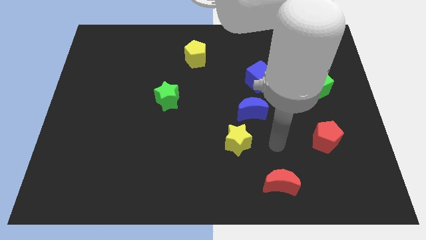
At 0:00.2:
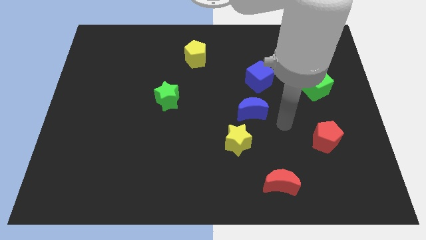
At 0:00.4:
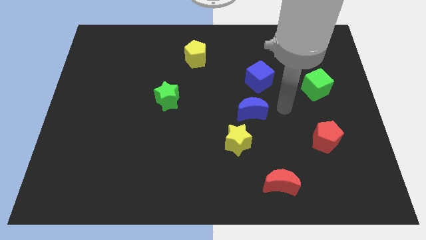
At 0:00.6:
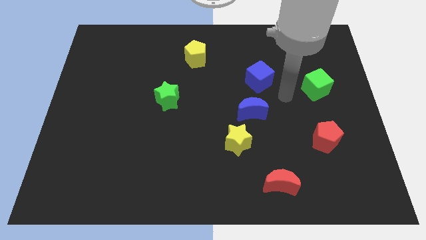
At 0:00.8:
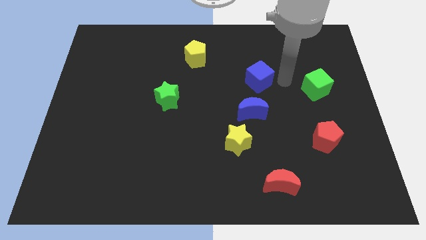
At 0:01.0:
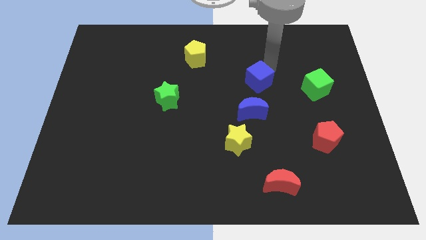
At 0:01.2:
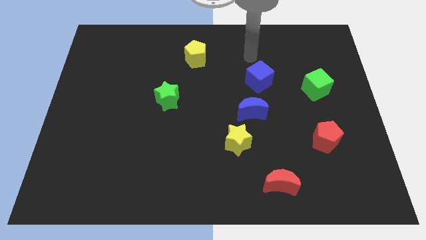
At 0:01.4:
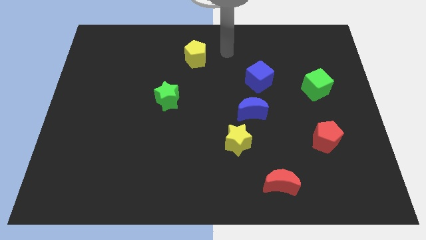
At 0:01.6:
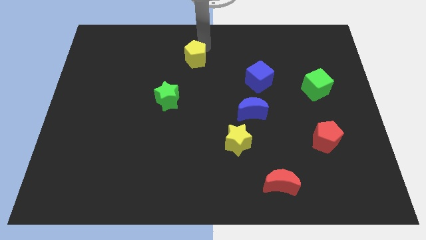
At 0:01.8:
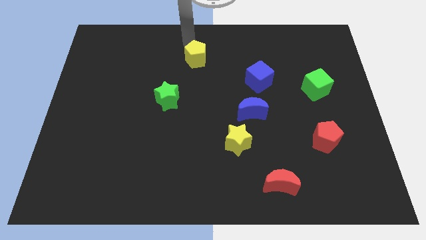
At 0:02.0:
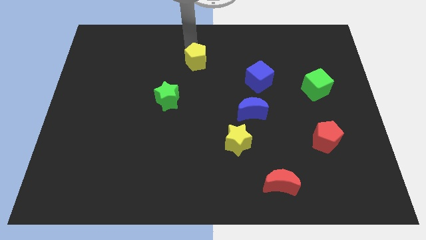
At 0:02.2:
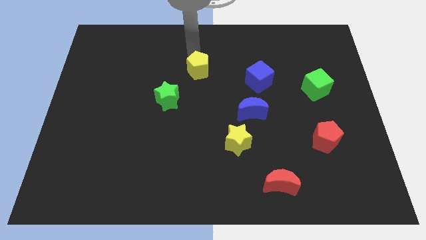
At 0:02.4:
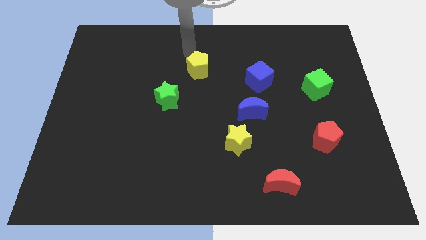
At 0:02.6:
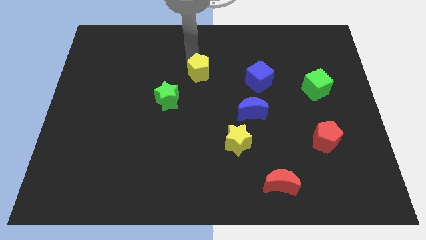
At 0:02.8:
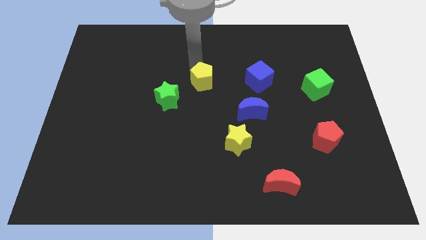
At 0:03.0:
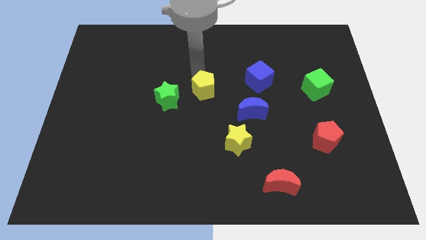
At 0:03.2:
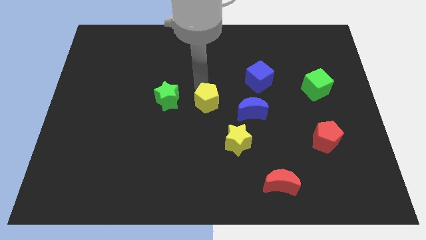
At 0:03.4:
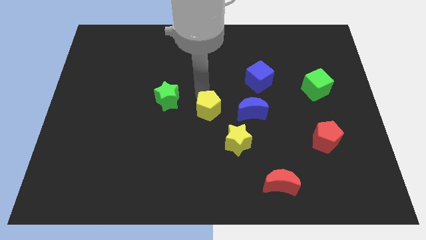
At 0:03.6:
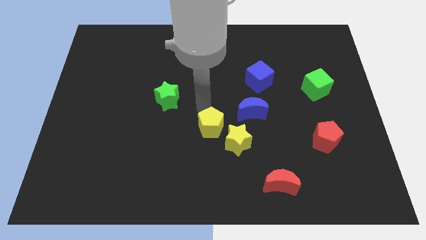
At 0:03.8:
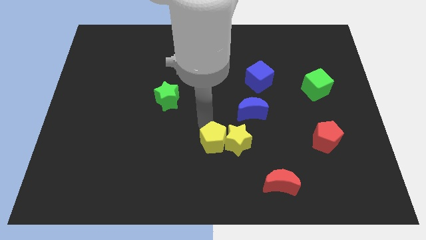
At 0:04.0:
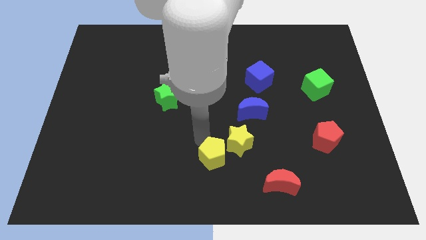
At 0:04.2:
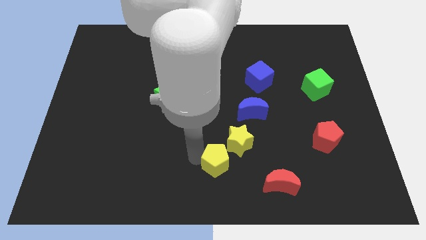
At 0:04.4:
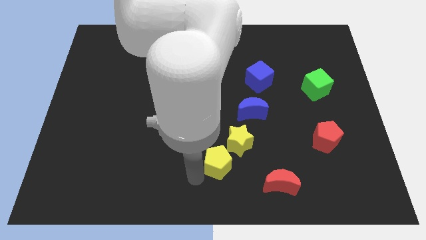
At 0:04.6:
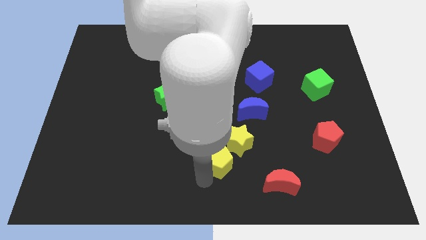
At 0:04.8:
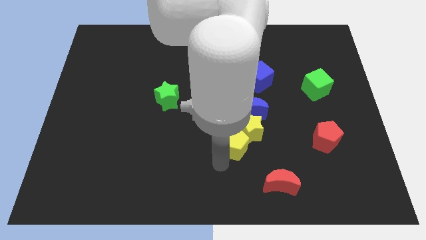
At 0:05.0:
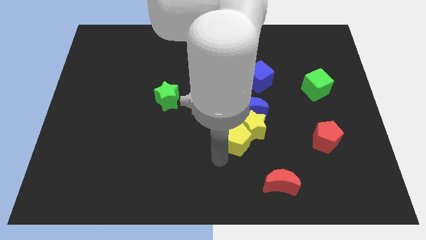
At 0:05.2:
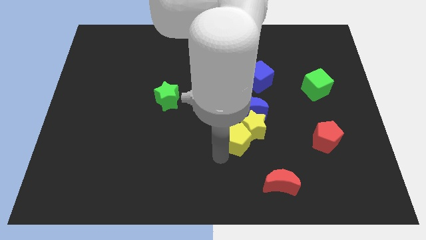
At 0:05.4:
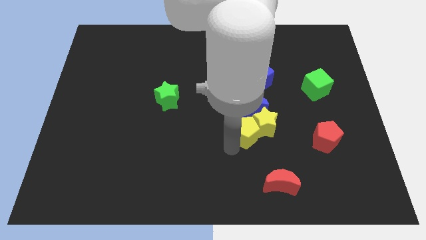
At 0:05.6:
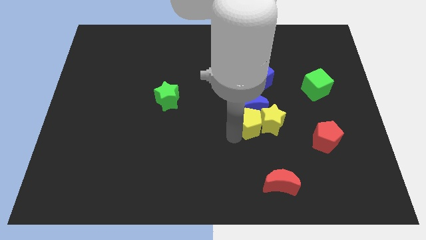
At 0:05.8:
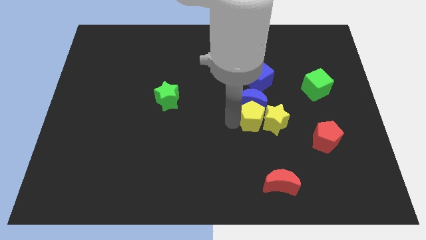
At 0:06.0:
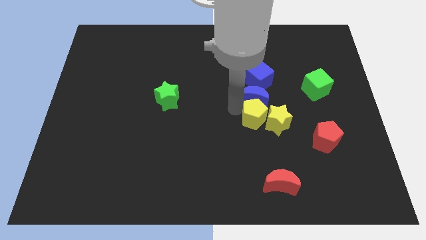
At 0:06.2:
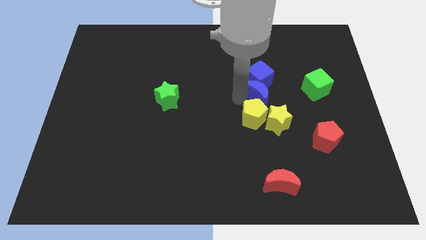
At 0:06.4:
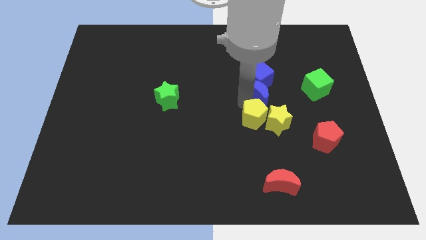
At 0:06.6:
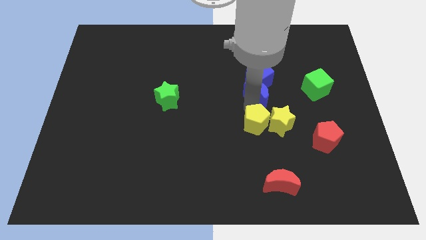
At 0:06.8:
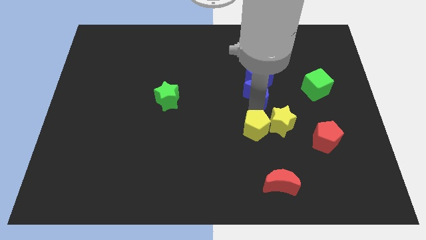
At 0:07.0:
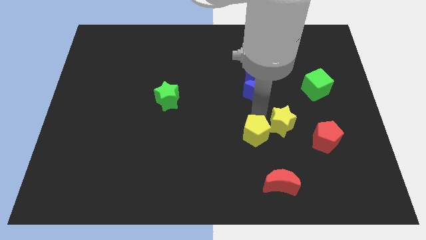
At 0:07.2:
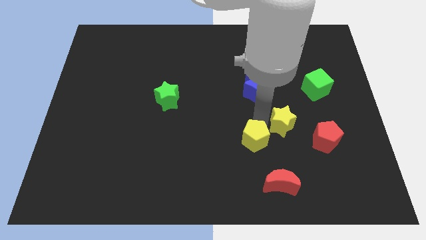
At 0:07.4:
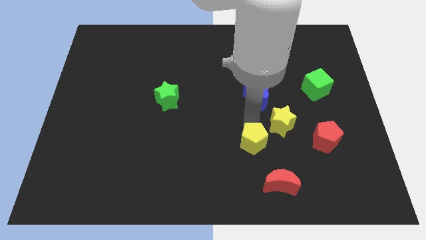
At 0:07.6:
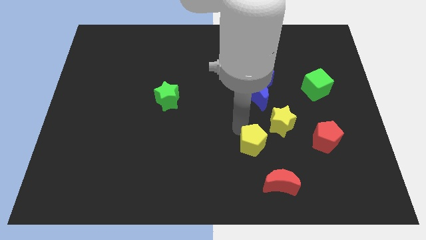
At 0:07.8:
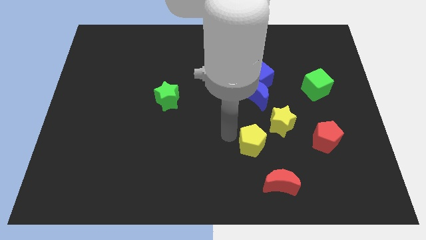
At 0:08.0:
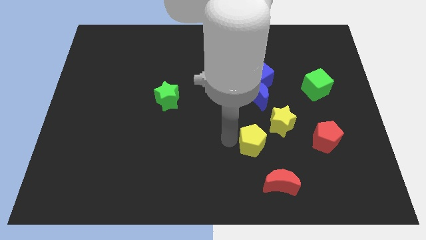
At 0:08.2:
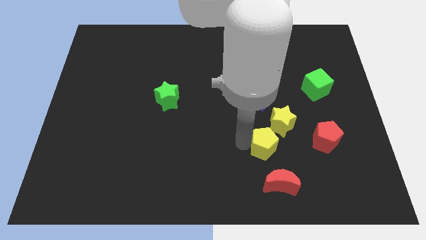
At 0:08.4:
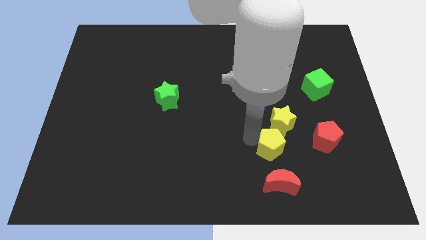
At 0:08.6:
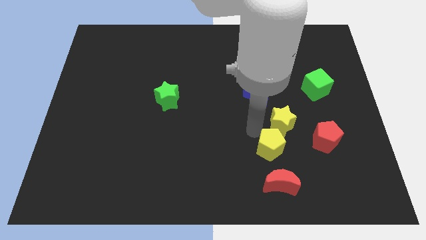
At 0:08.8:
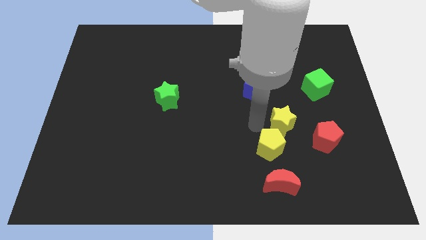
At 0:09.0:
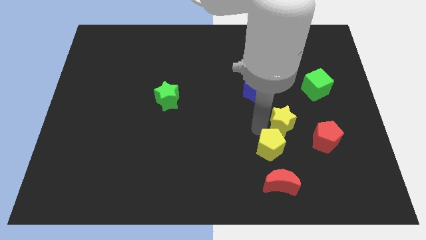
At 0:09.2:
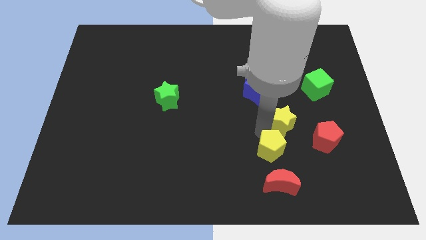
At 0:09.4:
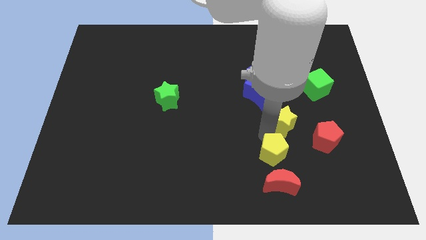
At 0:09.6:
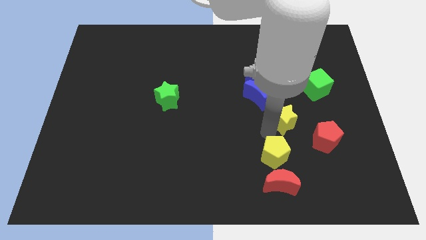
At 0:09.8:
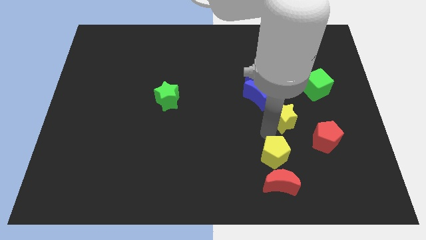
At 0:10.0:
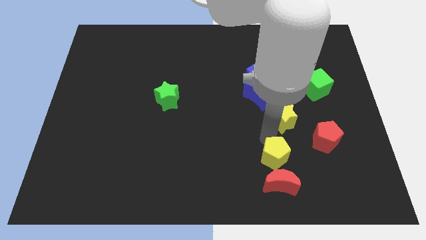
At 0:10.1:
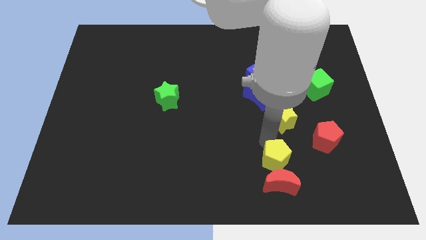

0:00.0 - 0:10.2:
put the yellow pentagon close to the red moon

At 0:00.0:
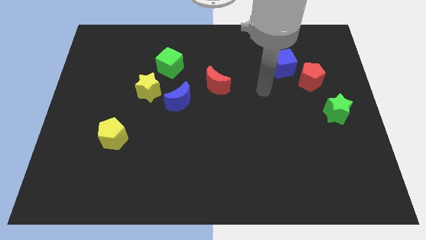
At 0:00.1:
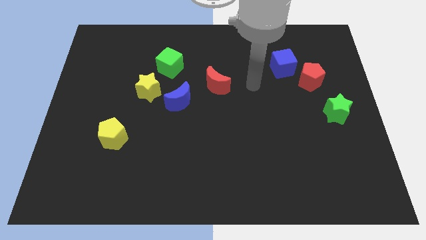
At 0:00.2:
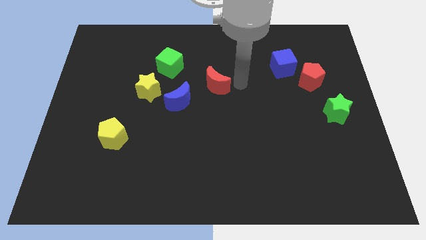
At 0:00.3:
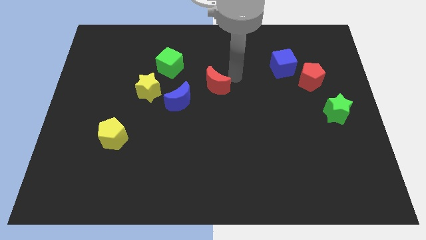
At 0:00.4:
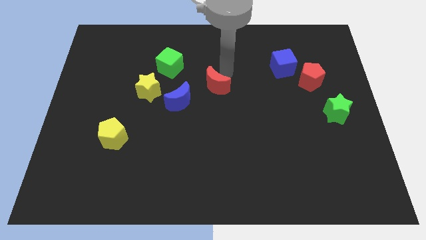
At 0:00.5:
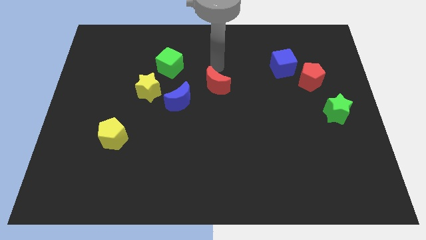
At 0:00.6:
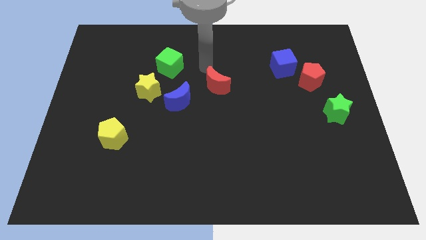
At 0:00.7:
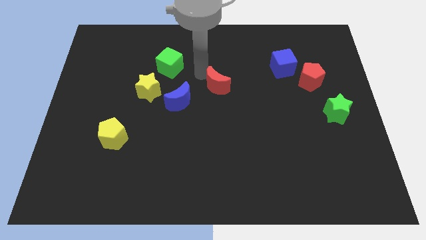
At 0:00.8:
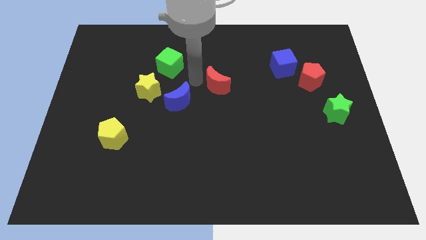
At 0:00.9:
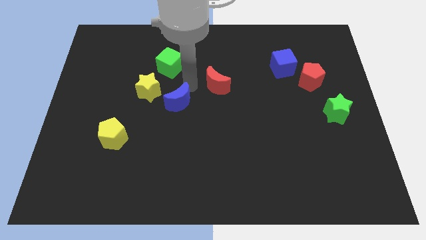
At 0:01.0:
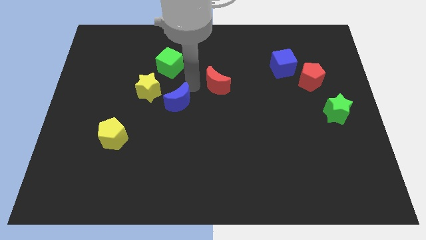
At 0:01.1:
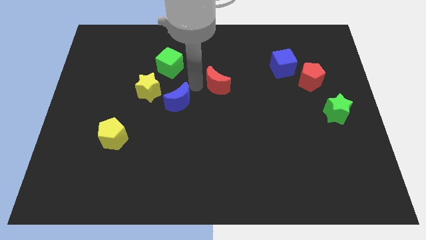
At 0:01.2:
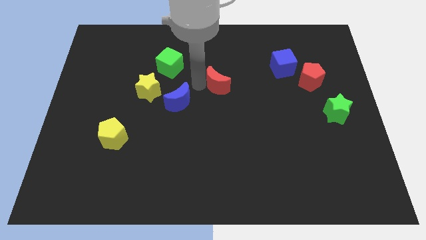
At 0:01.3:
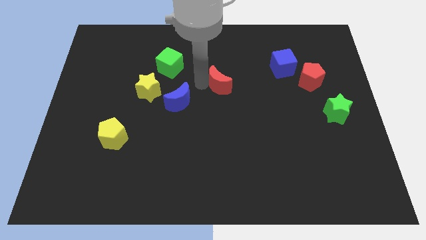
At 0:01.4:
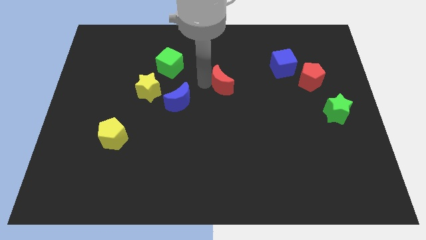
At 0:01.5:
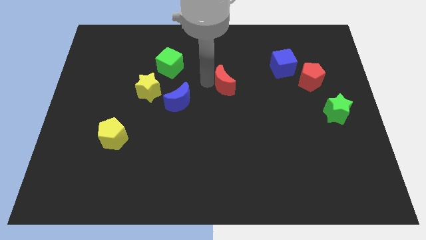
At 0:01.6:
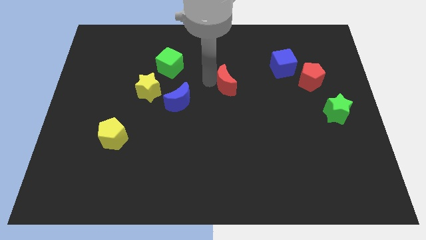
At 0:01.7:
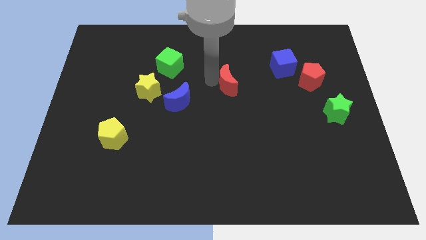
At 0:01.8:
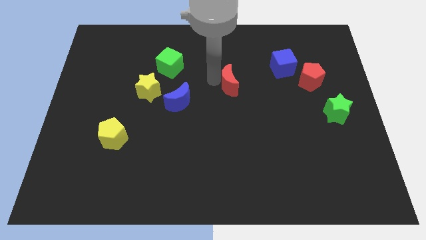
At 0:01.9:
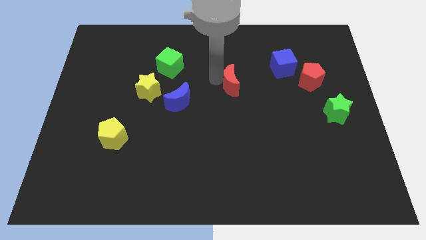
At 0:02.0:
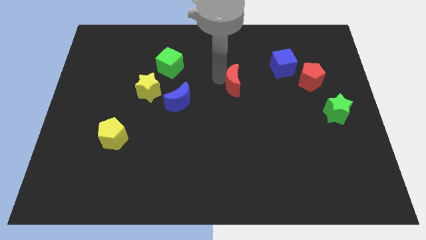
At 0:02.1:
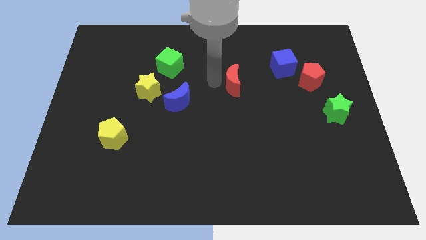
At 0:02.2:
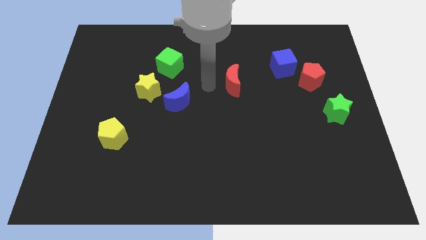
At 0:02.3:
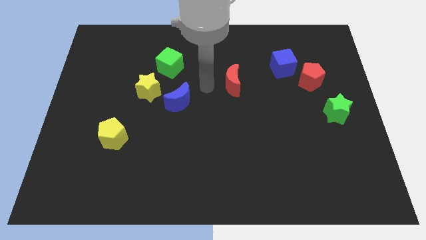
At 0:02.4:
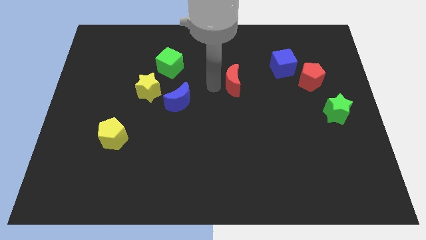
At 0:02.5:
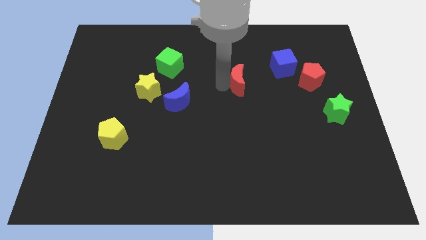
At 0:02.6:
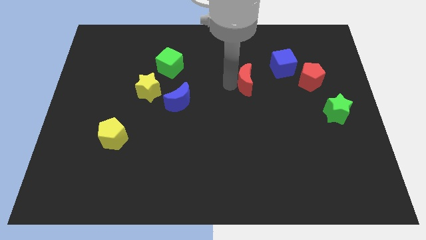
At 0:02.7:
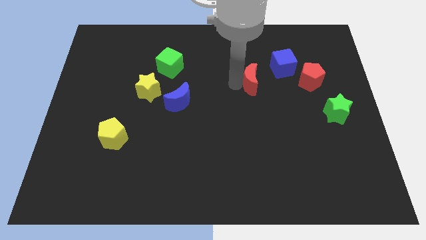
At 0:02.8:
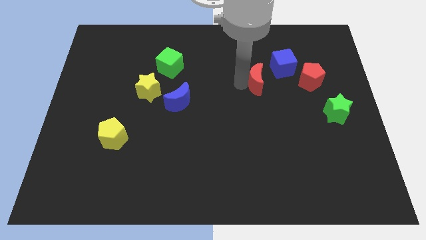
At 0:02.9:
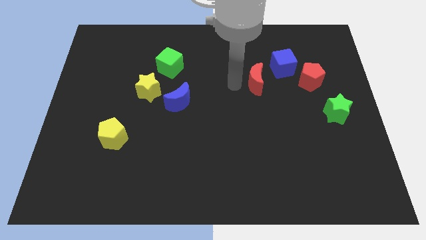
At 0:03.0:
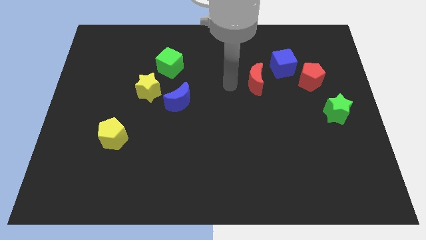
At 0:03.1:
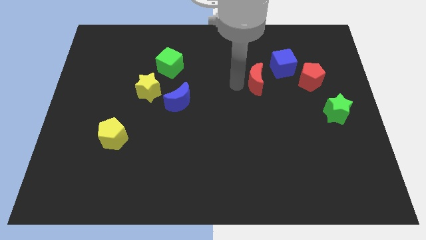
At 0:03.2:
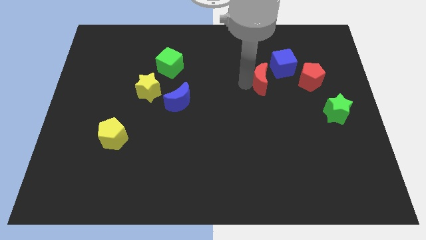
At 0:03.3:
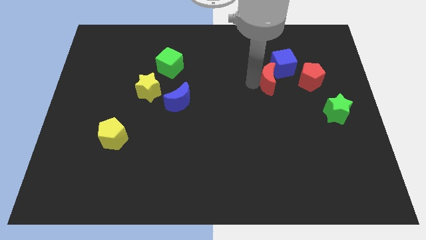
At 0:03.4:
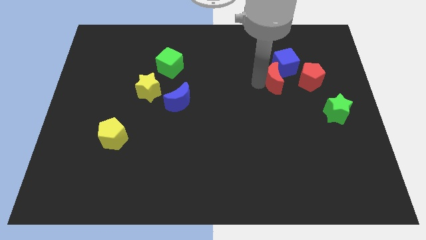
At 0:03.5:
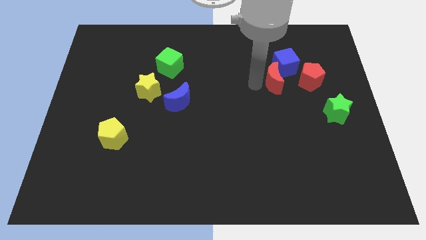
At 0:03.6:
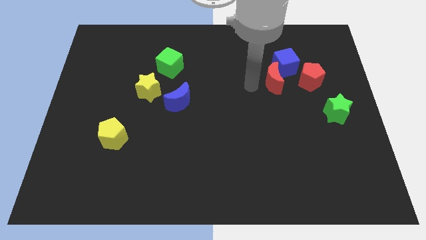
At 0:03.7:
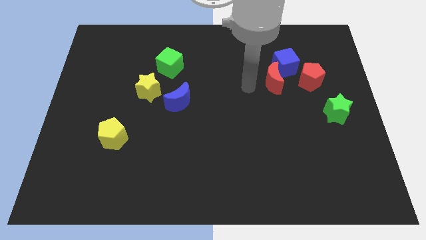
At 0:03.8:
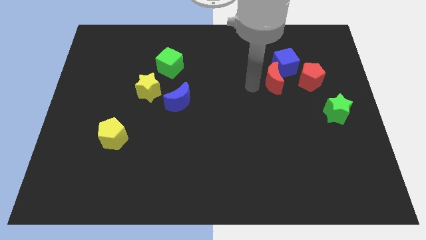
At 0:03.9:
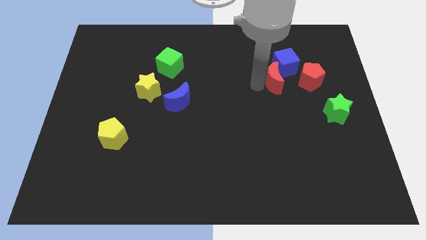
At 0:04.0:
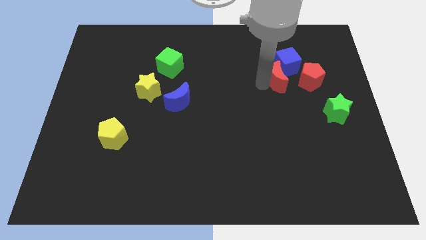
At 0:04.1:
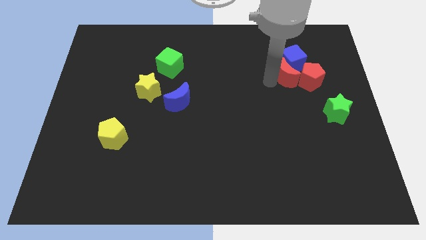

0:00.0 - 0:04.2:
push the red moon towards the red pentagon
